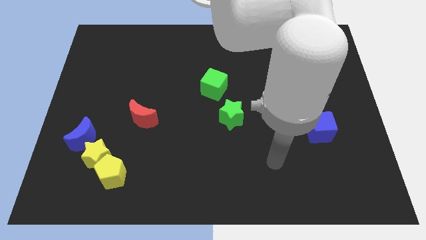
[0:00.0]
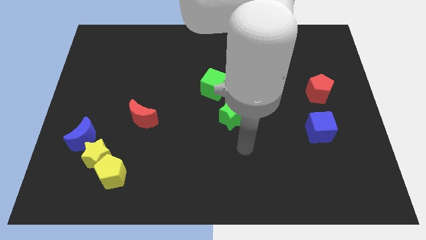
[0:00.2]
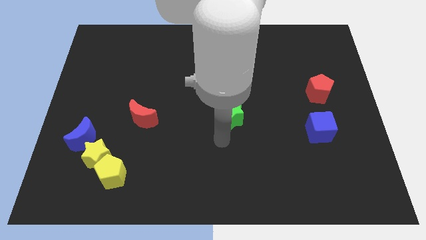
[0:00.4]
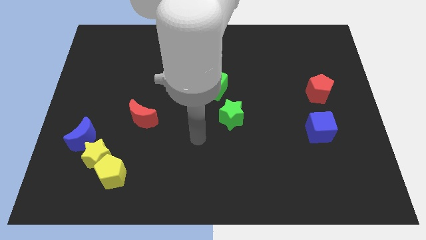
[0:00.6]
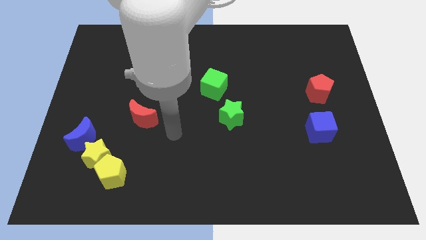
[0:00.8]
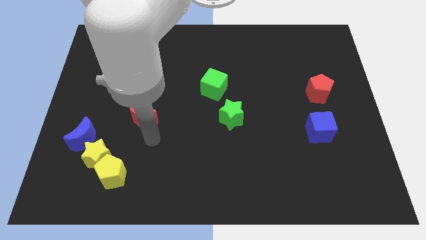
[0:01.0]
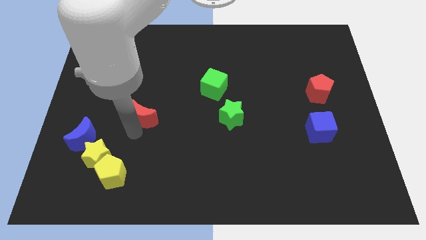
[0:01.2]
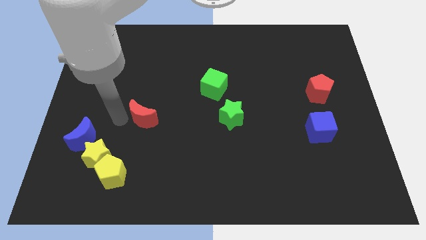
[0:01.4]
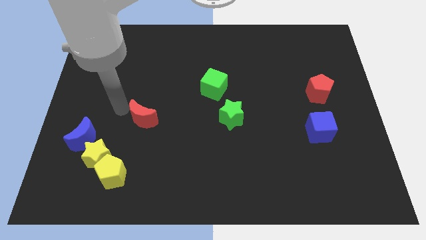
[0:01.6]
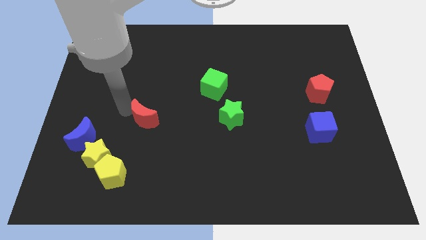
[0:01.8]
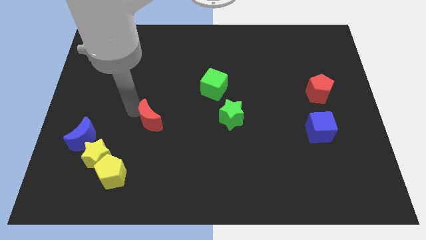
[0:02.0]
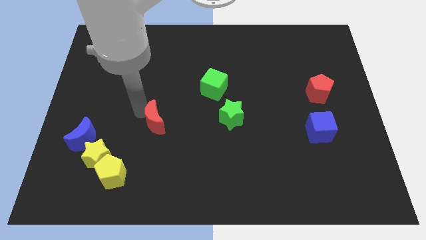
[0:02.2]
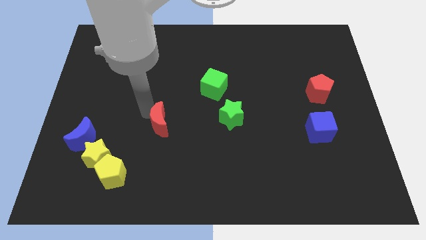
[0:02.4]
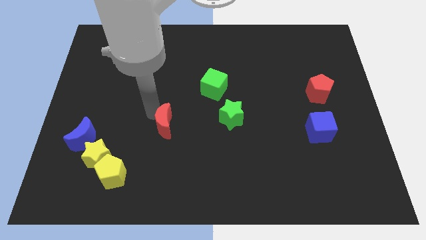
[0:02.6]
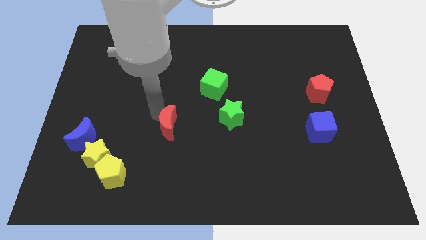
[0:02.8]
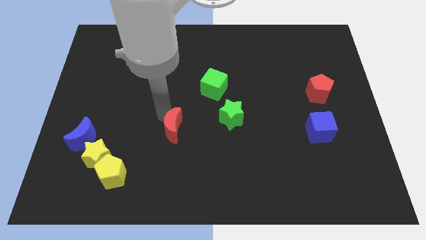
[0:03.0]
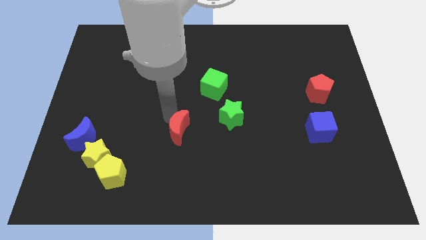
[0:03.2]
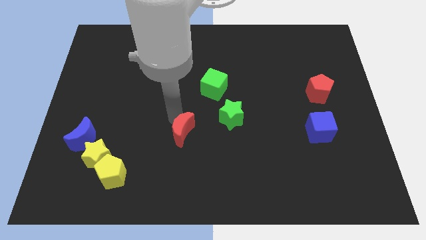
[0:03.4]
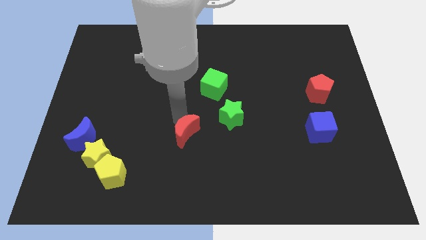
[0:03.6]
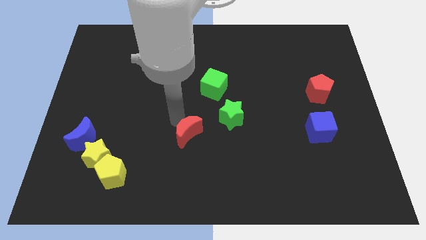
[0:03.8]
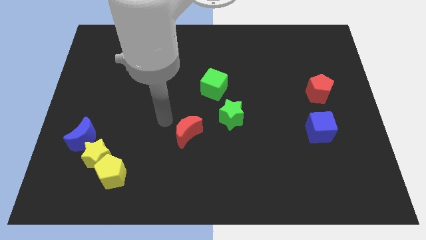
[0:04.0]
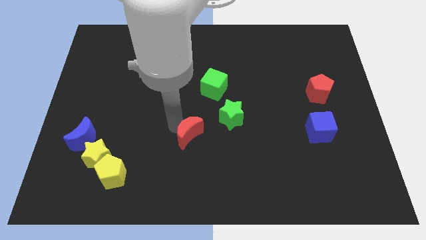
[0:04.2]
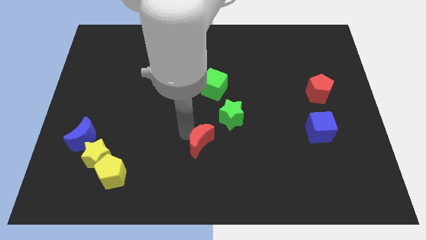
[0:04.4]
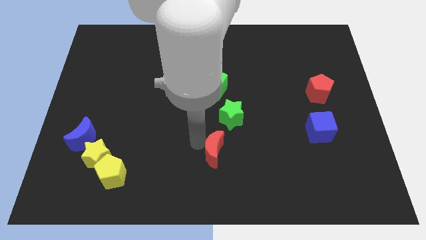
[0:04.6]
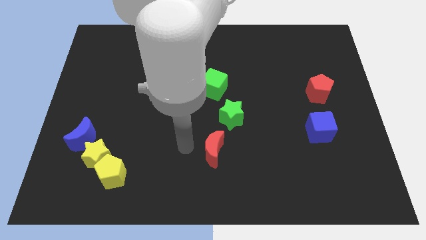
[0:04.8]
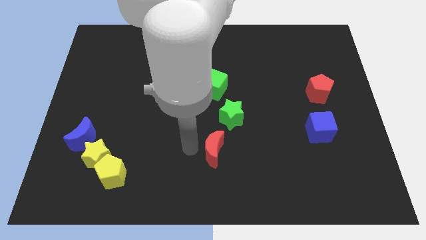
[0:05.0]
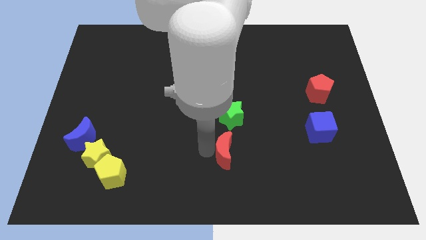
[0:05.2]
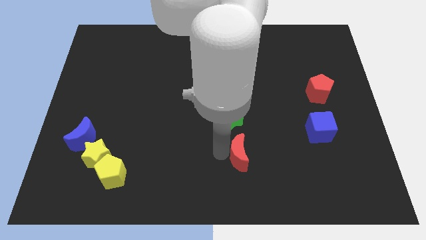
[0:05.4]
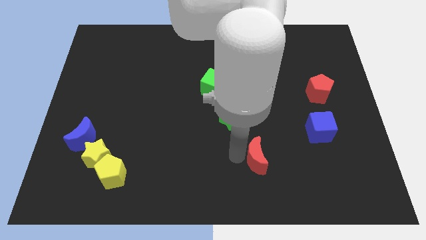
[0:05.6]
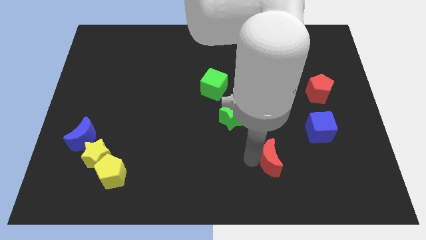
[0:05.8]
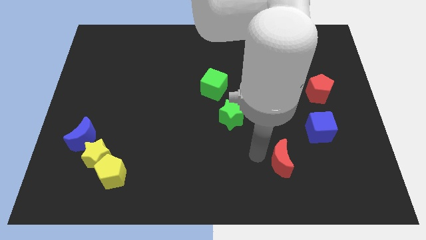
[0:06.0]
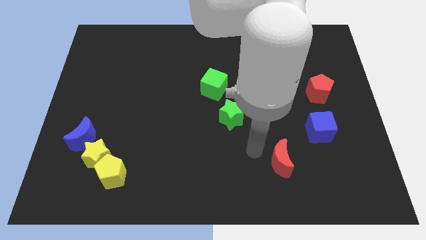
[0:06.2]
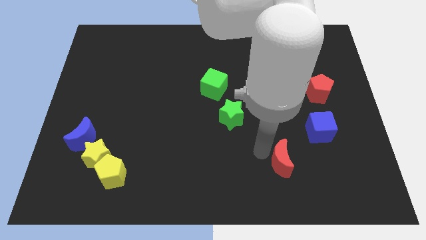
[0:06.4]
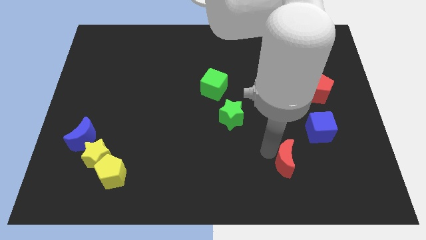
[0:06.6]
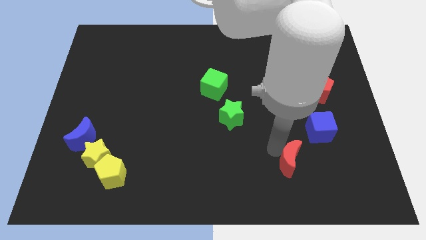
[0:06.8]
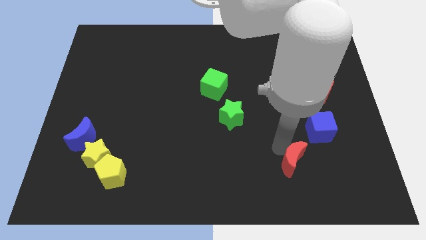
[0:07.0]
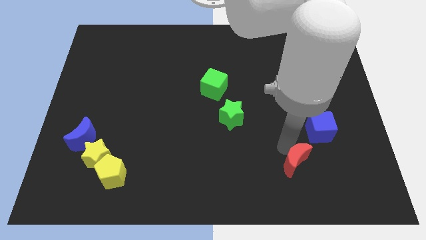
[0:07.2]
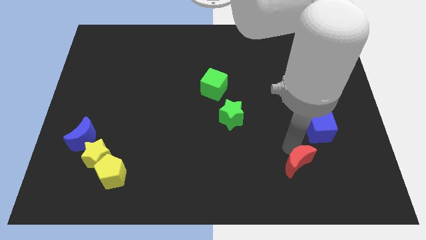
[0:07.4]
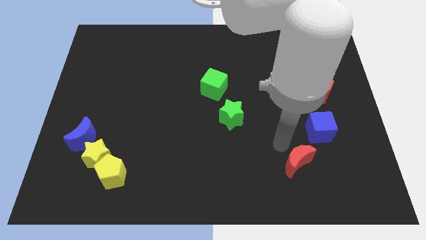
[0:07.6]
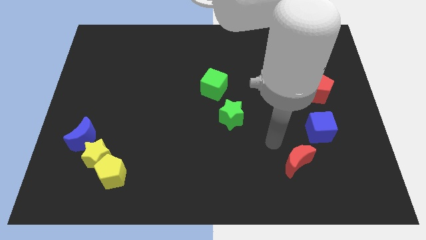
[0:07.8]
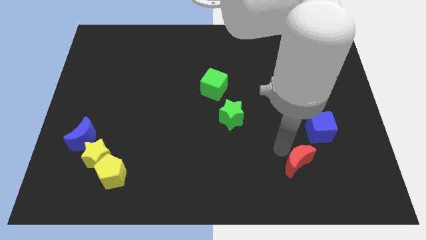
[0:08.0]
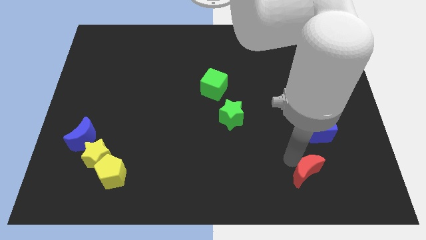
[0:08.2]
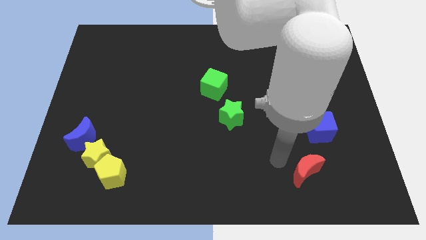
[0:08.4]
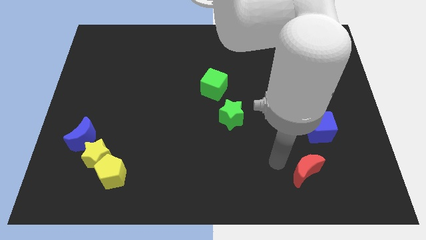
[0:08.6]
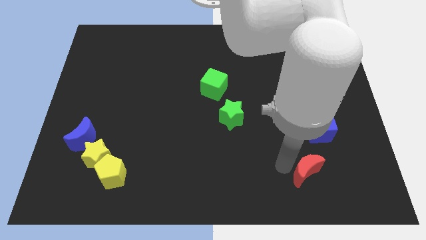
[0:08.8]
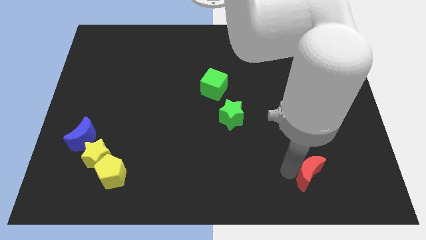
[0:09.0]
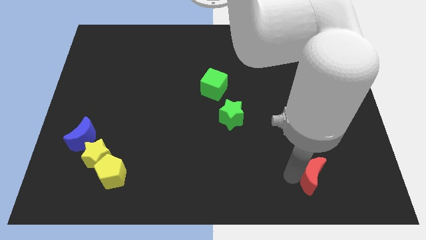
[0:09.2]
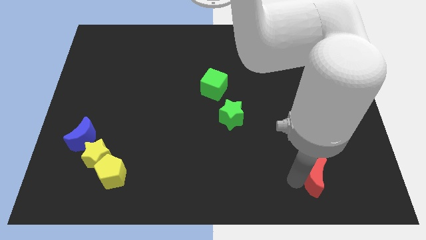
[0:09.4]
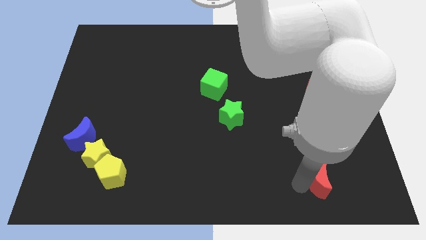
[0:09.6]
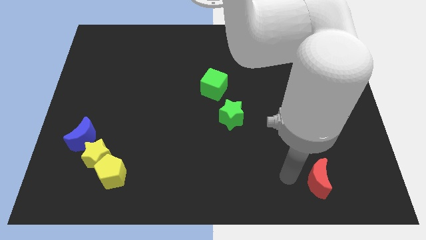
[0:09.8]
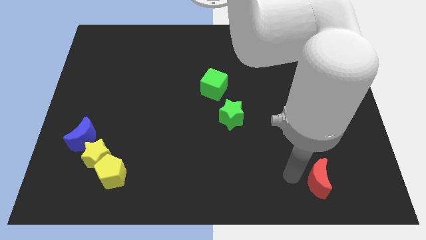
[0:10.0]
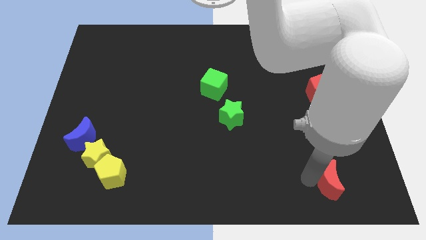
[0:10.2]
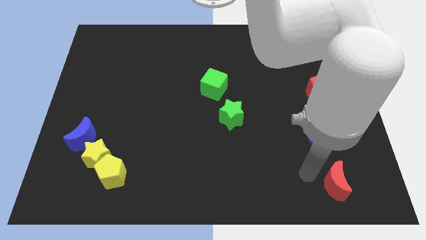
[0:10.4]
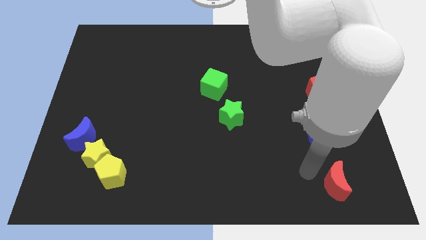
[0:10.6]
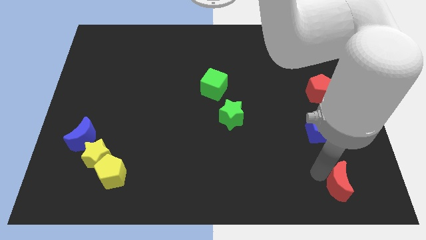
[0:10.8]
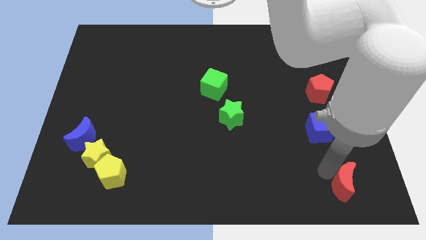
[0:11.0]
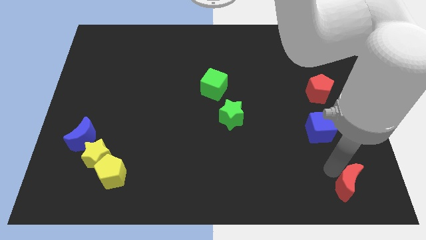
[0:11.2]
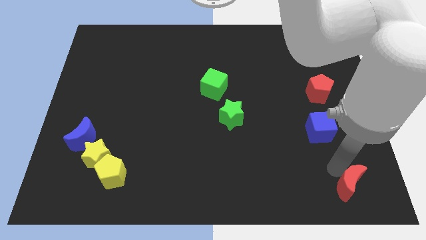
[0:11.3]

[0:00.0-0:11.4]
move the red moon to the bottom right

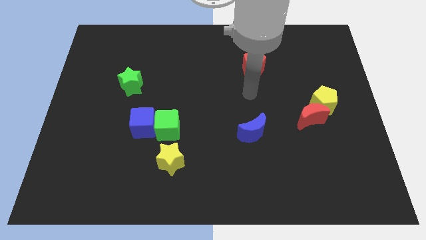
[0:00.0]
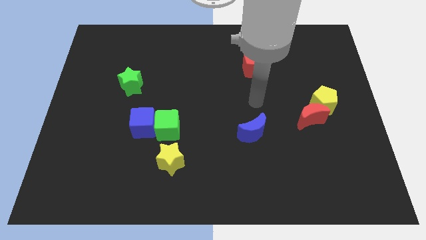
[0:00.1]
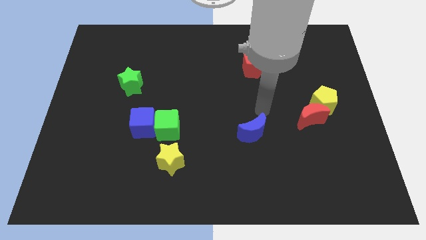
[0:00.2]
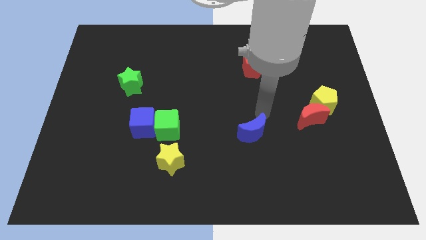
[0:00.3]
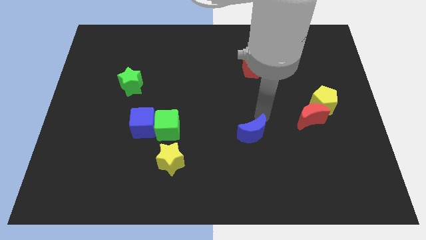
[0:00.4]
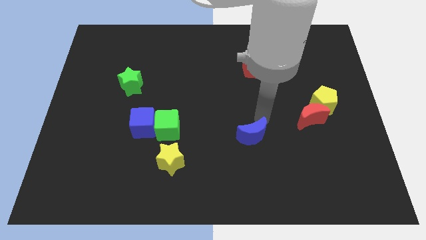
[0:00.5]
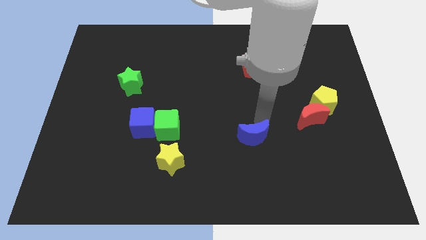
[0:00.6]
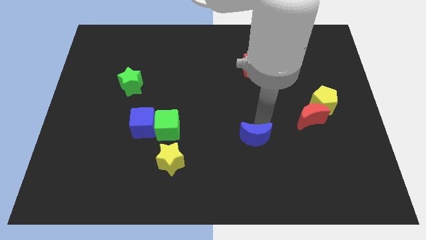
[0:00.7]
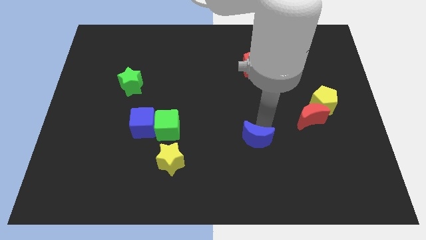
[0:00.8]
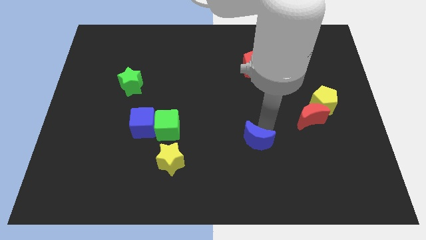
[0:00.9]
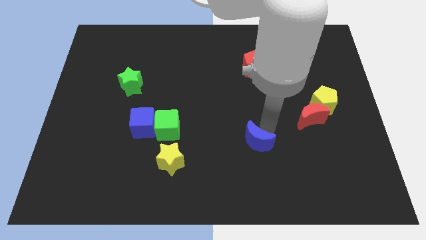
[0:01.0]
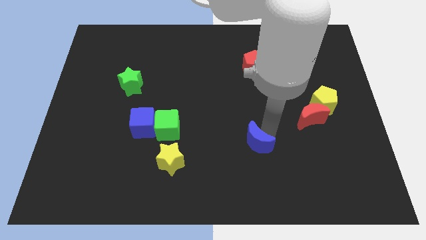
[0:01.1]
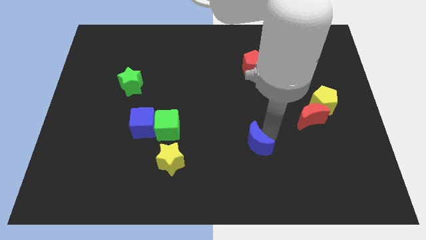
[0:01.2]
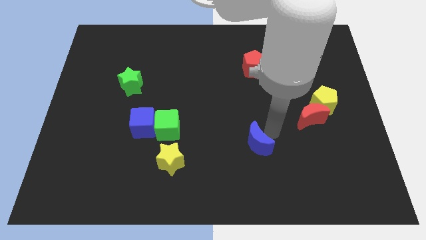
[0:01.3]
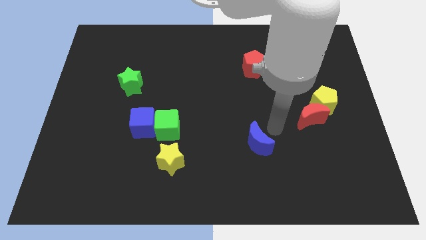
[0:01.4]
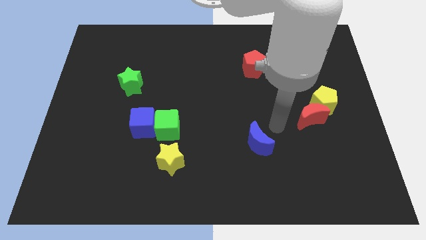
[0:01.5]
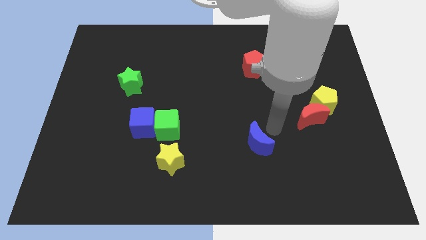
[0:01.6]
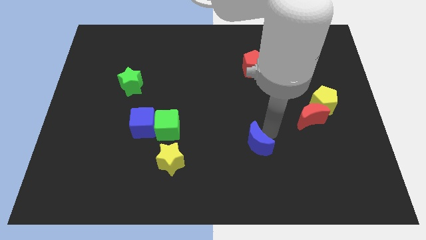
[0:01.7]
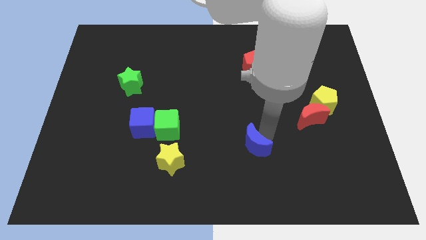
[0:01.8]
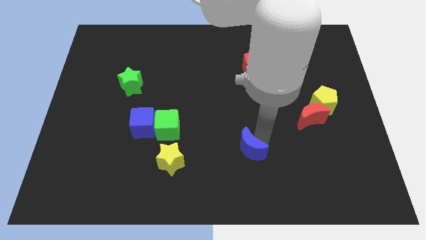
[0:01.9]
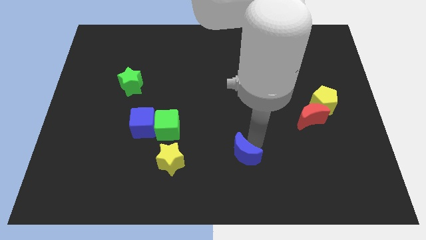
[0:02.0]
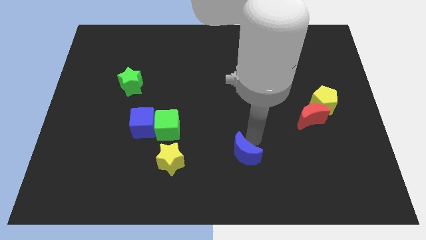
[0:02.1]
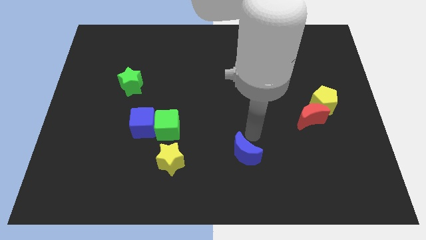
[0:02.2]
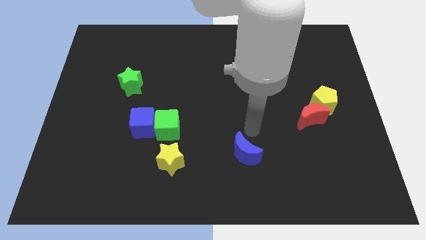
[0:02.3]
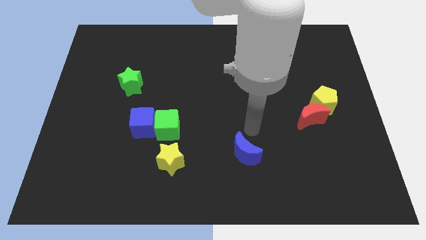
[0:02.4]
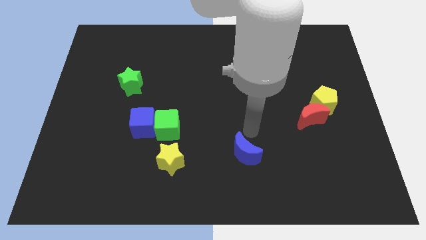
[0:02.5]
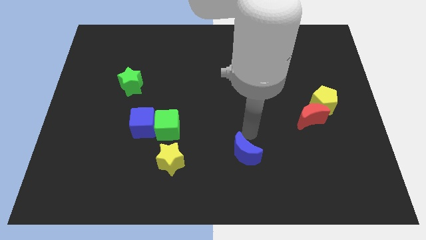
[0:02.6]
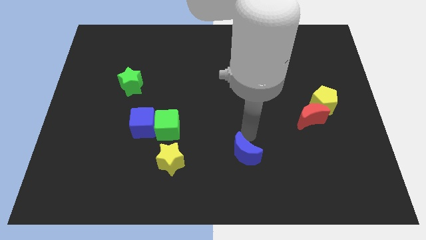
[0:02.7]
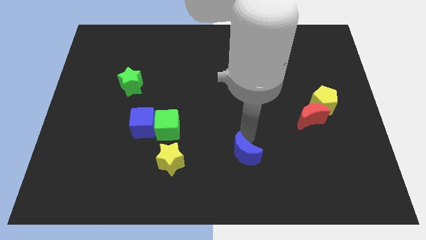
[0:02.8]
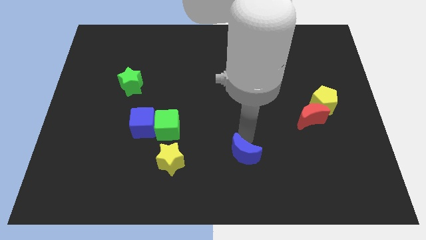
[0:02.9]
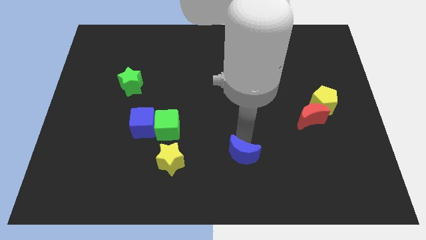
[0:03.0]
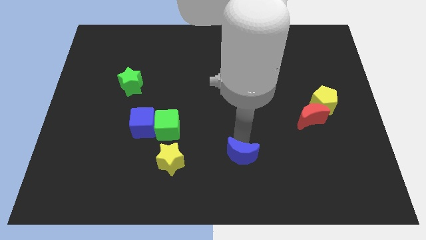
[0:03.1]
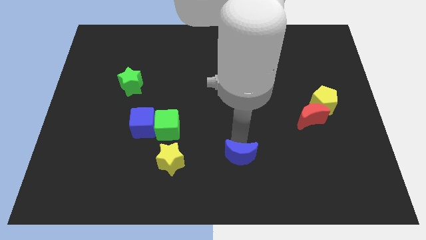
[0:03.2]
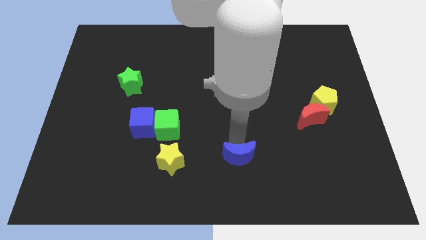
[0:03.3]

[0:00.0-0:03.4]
push the blue moon to the bottom side
